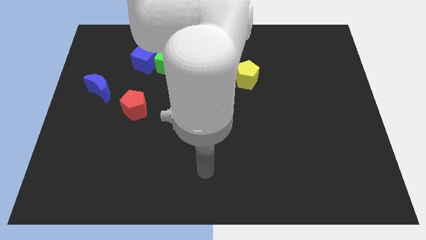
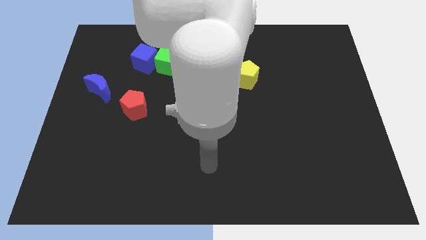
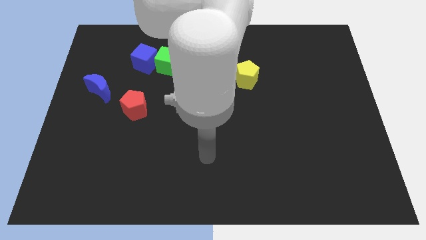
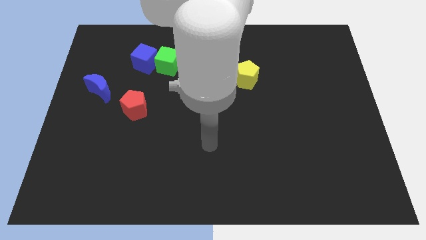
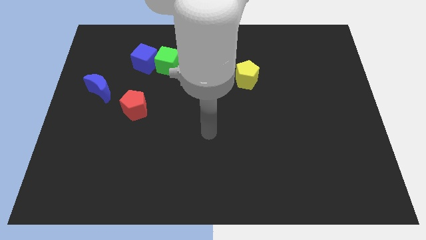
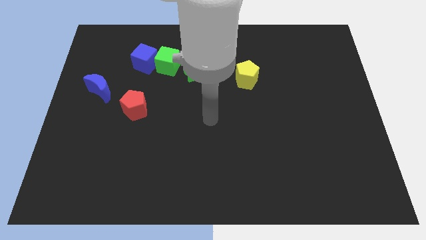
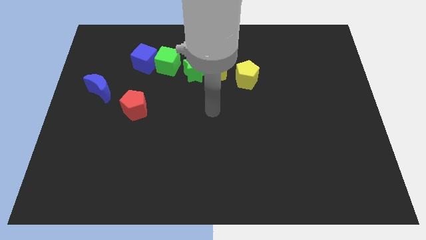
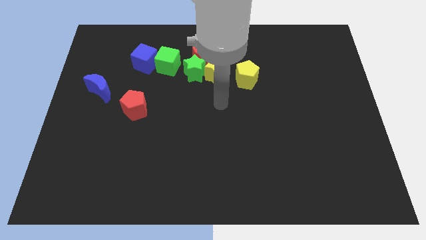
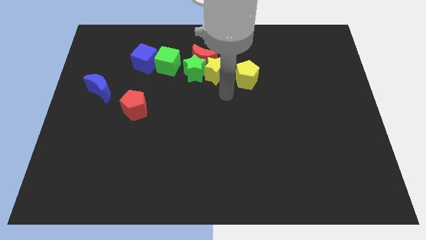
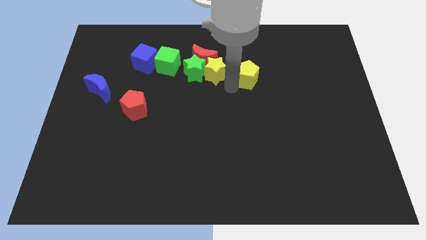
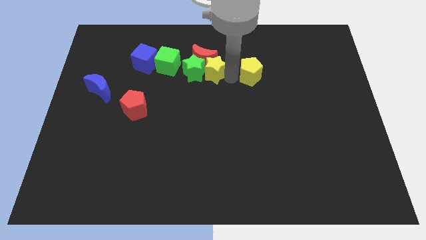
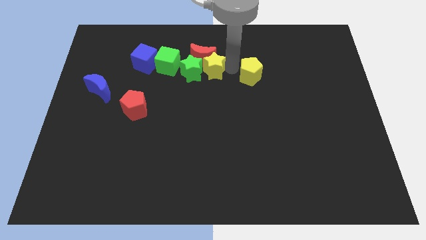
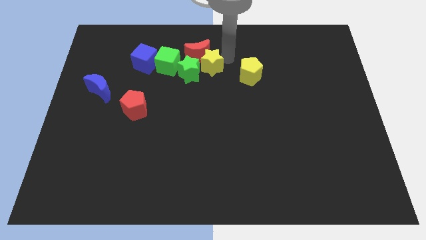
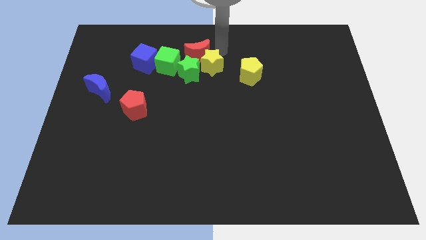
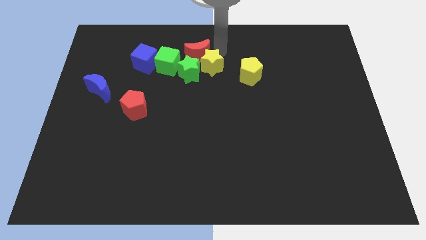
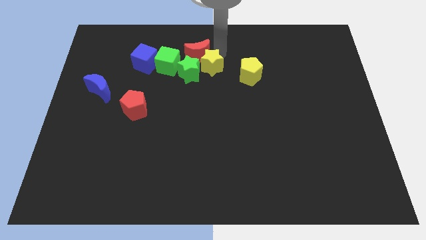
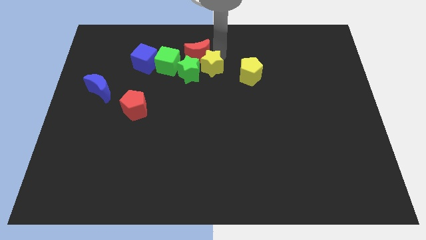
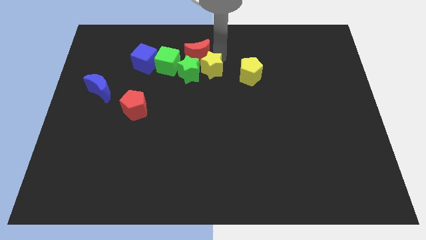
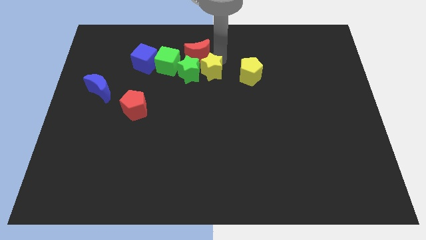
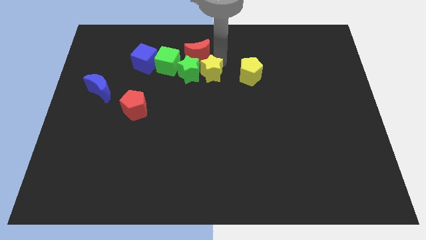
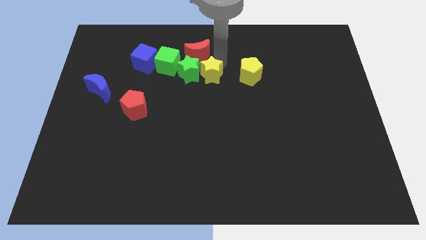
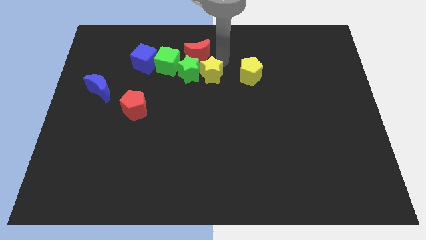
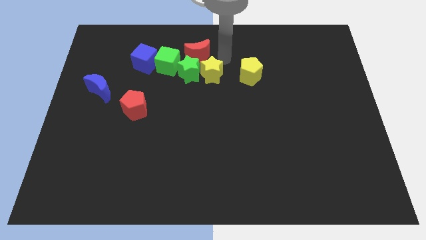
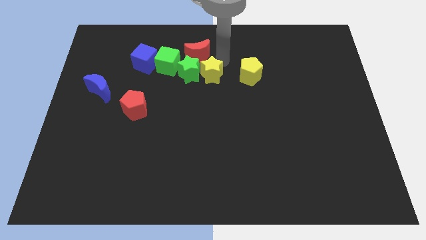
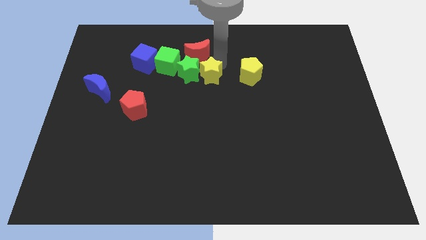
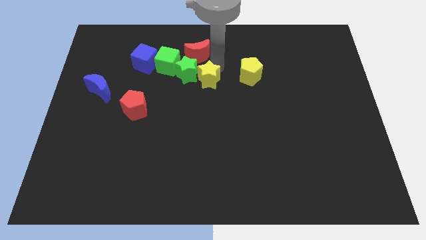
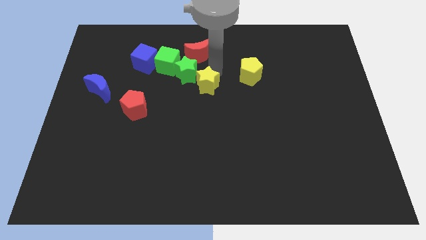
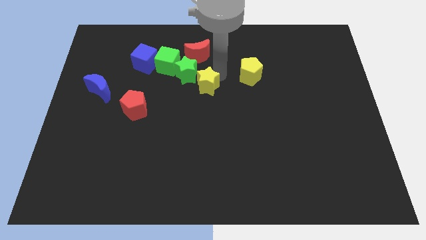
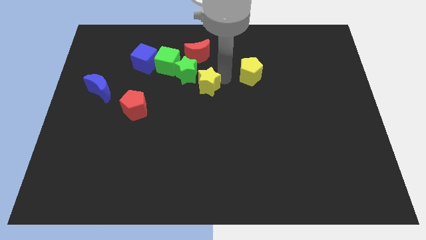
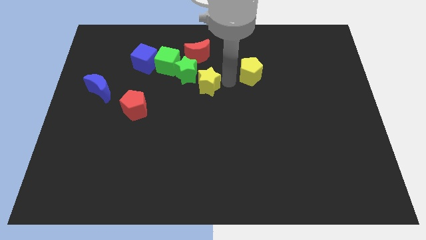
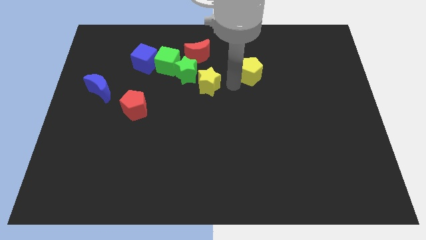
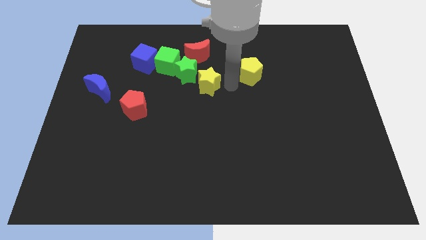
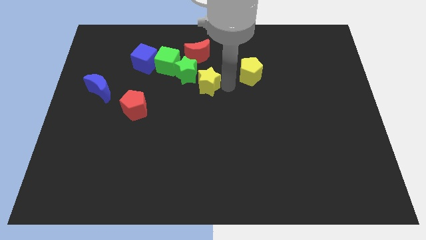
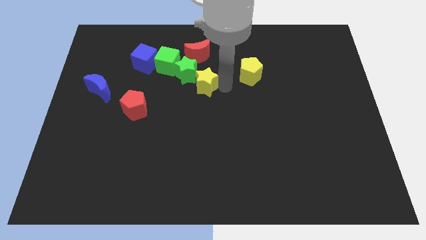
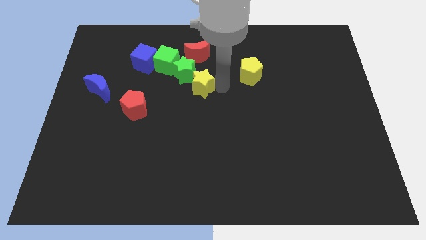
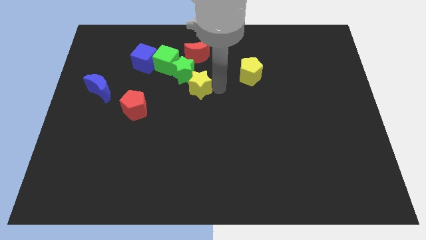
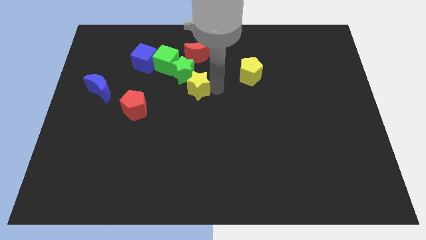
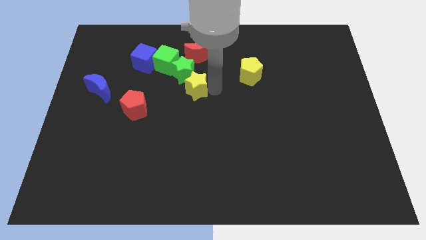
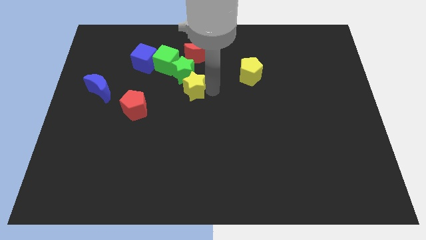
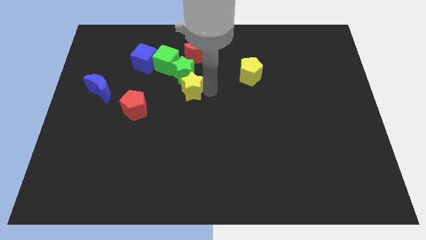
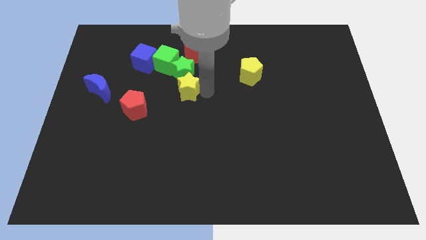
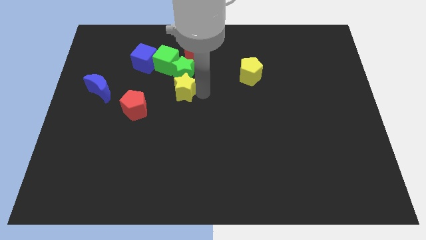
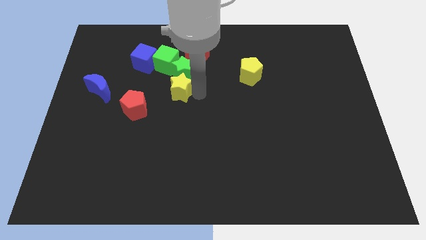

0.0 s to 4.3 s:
slide the yellow star a bit to the left

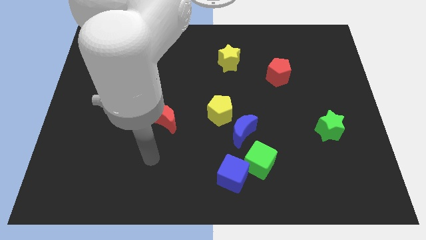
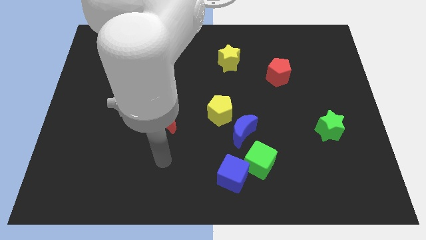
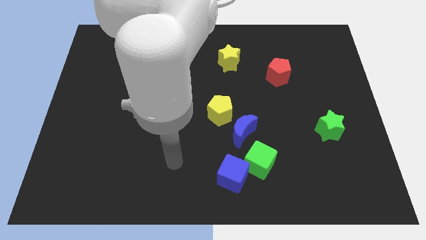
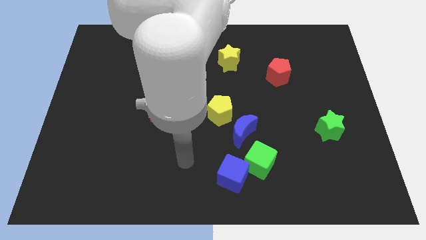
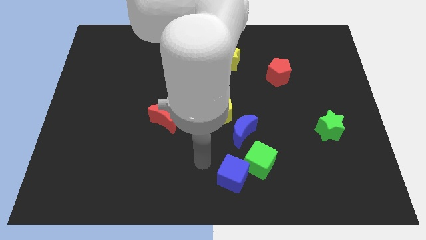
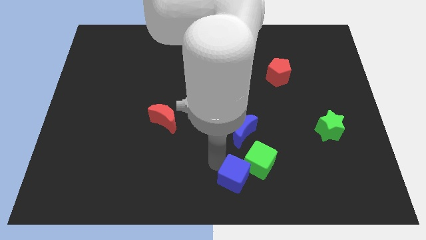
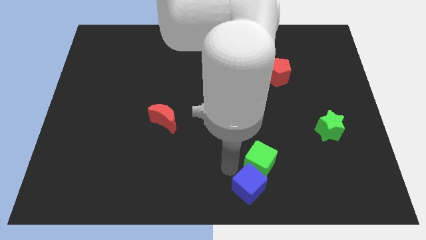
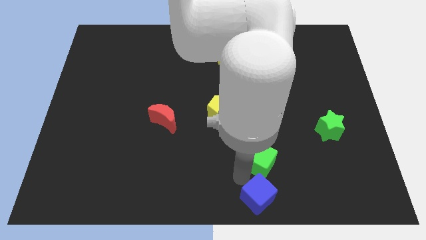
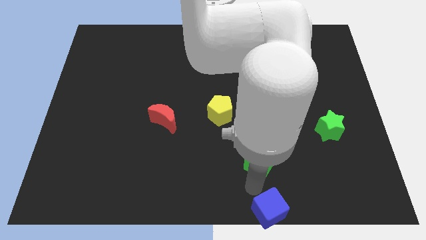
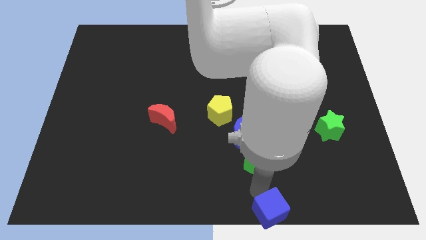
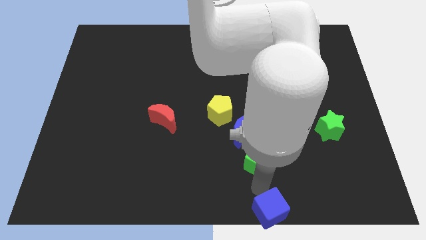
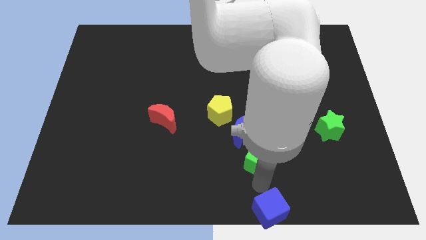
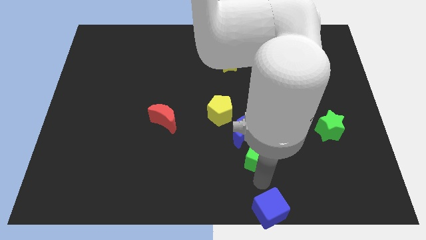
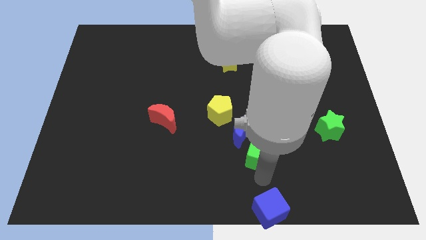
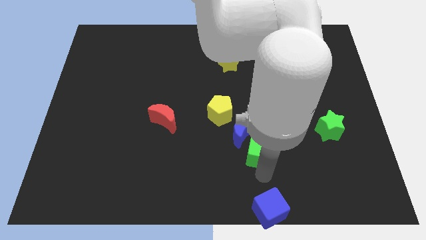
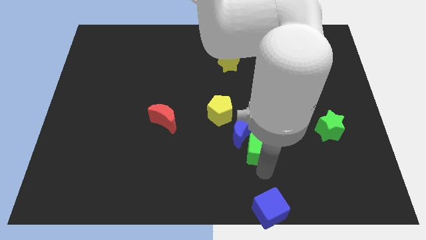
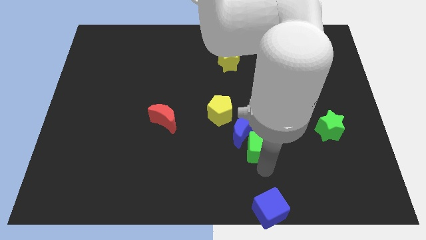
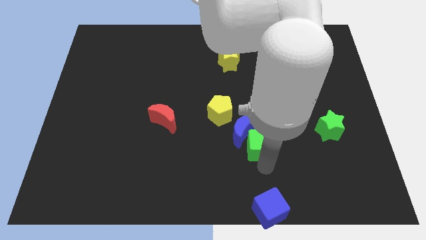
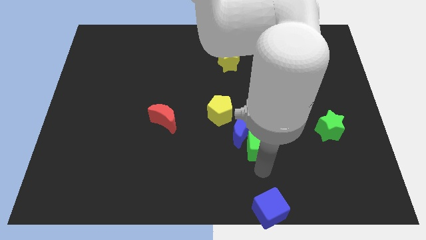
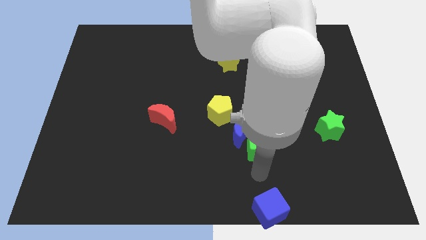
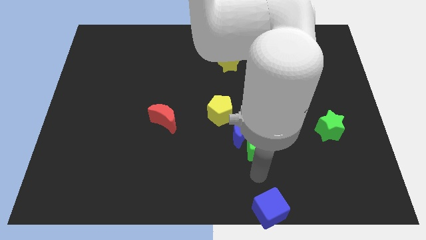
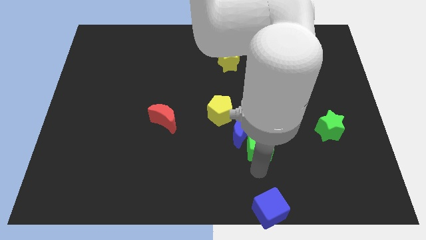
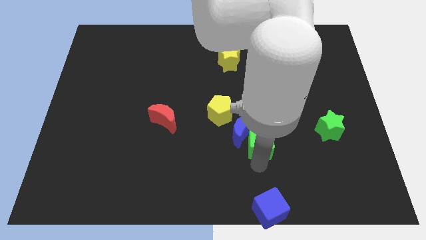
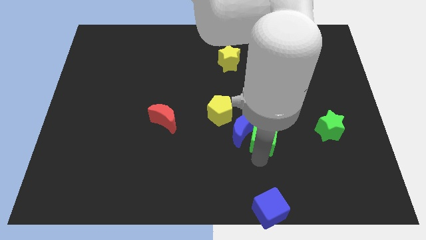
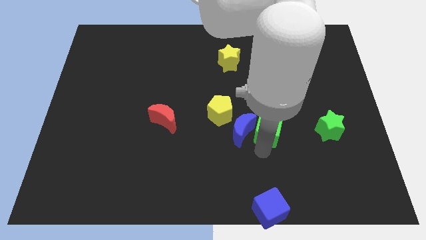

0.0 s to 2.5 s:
slide the green cube up a bit

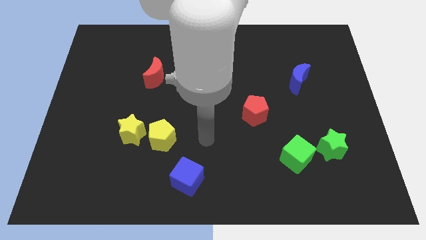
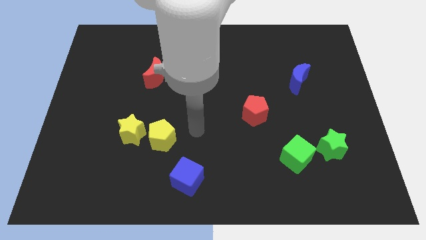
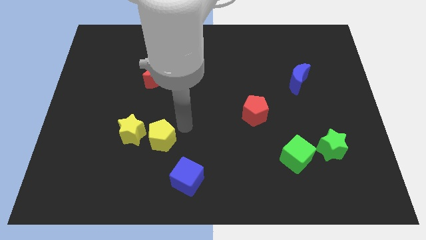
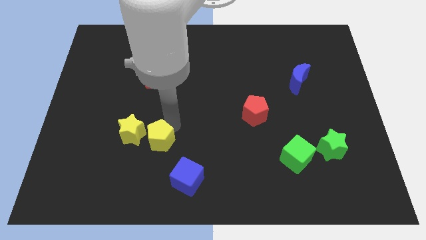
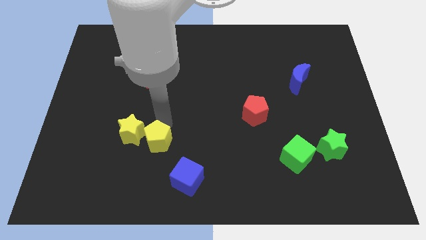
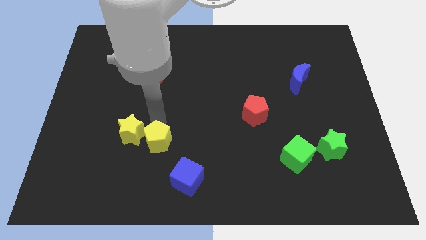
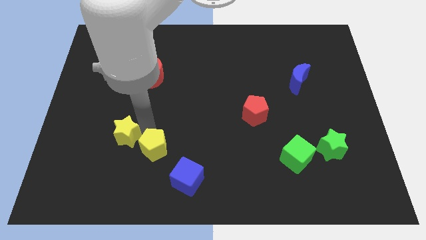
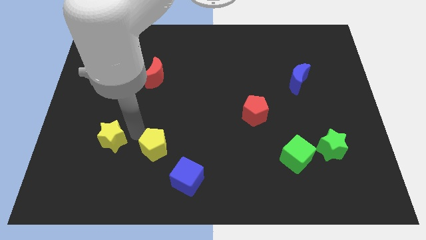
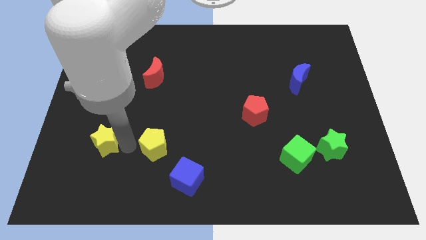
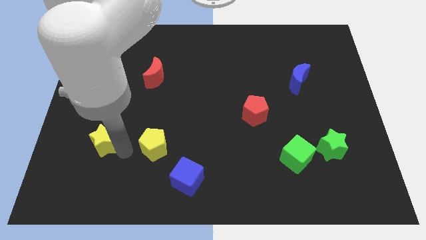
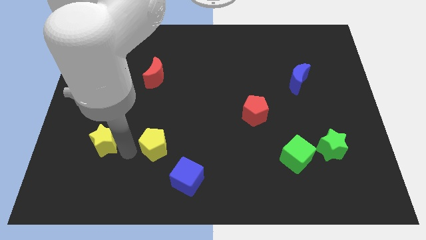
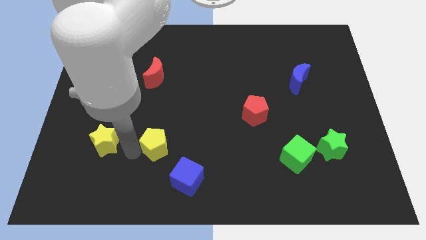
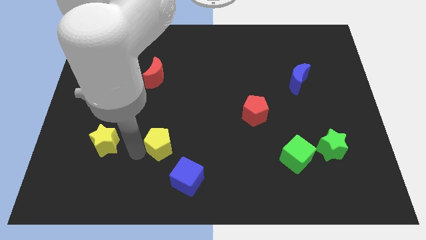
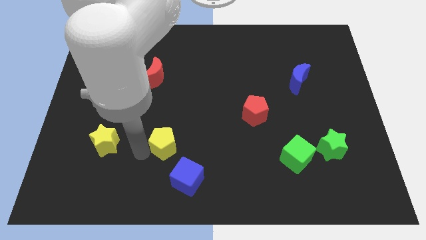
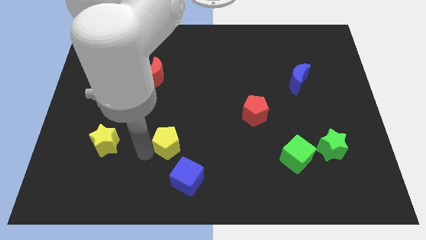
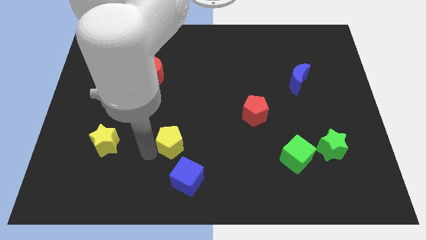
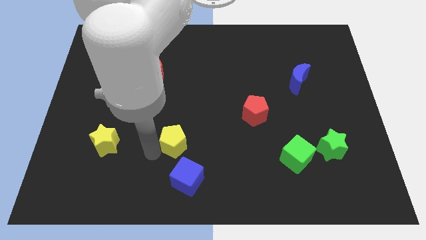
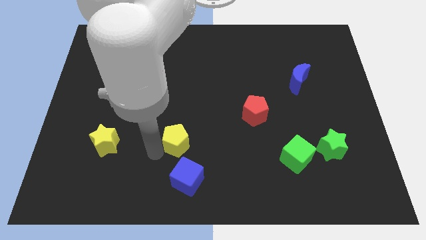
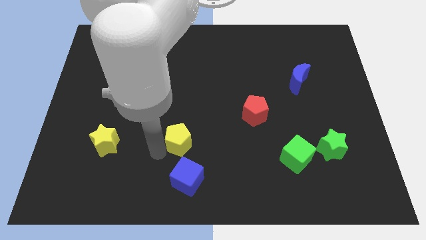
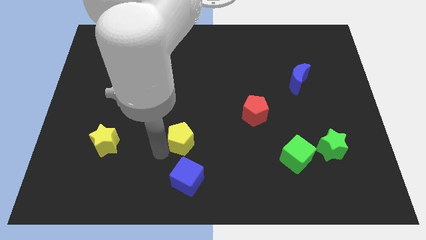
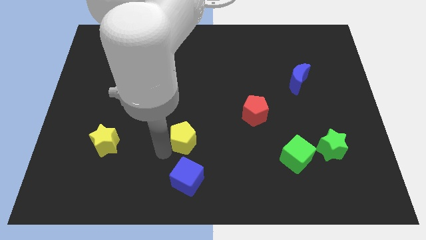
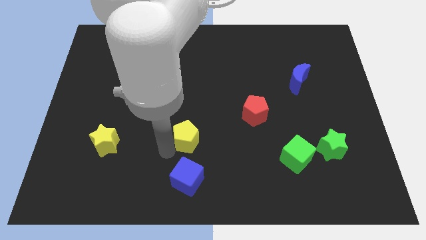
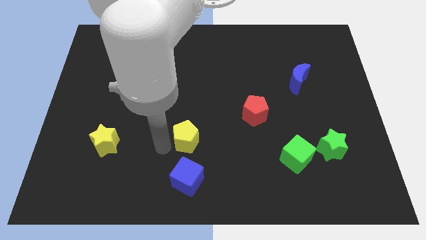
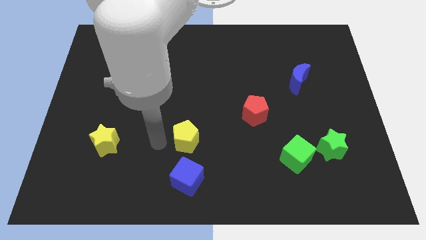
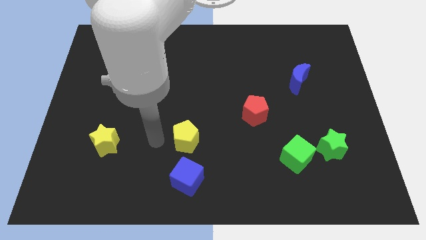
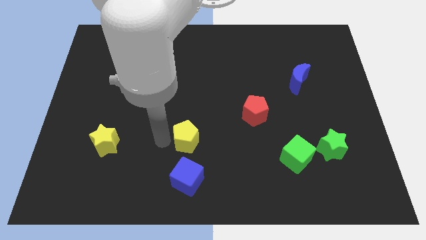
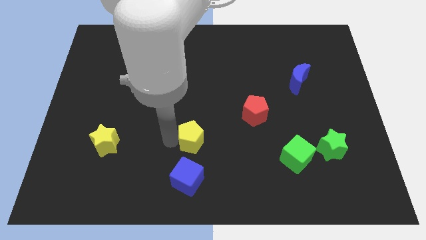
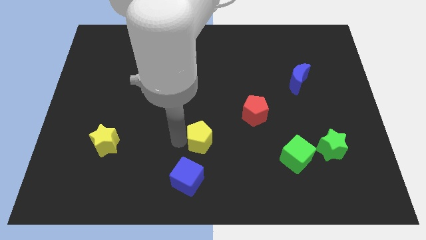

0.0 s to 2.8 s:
slightly slide the yellow pentagon to the right
